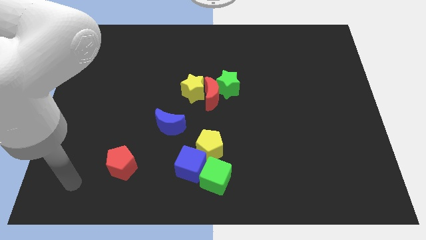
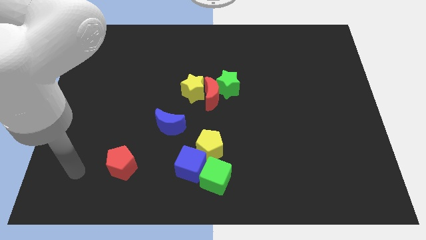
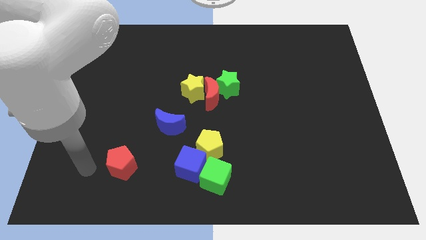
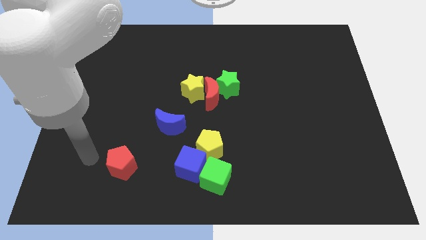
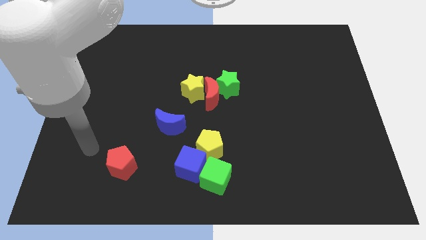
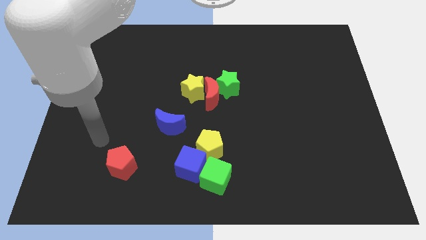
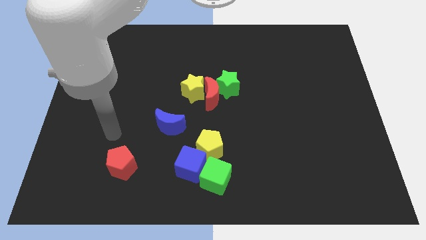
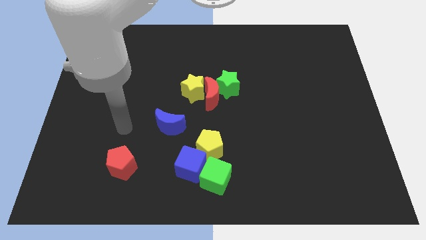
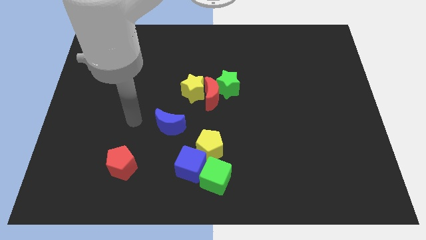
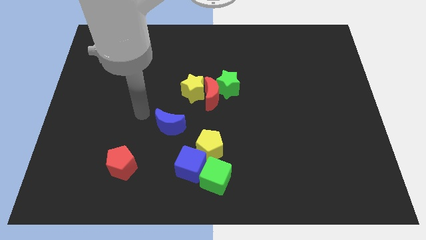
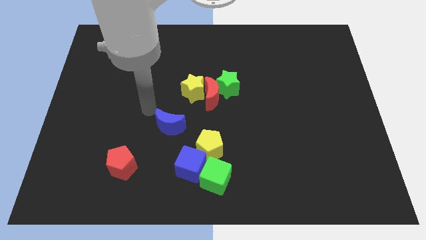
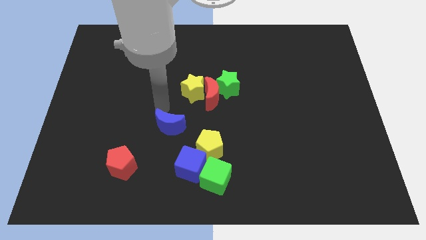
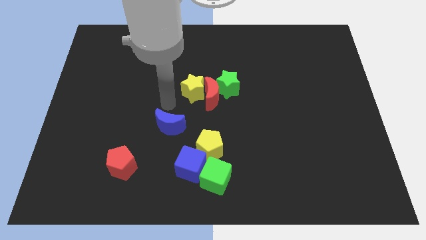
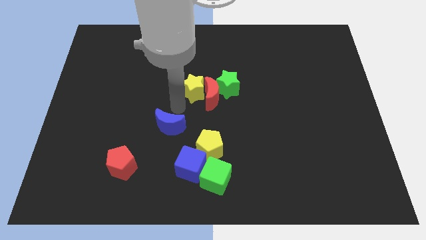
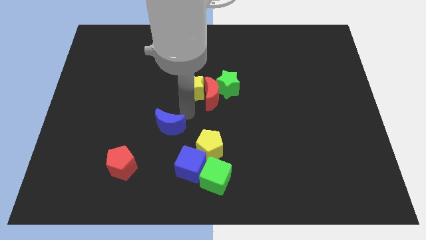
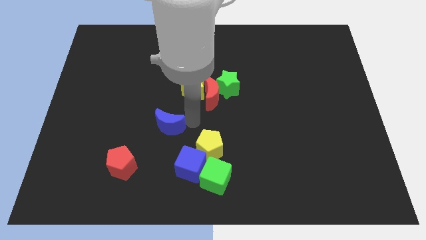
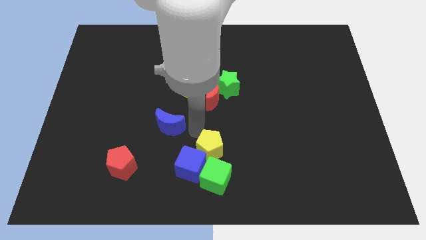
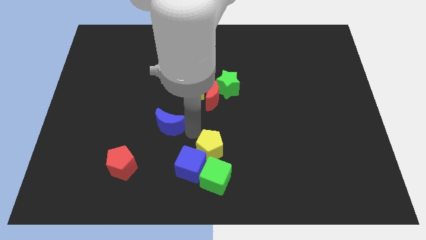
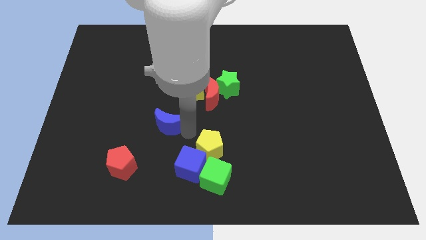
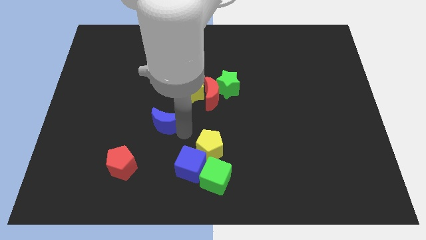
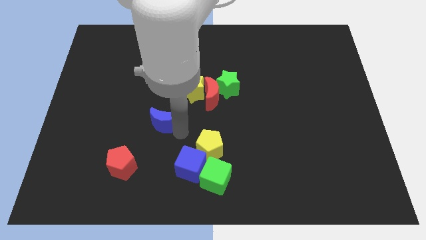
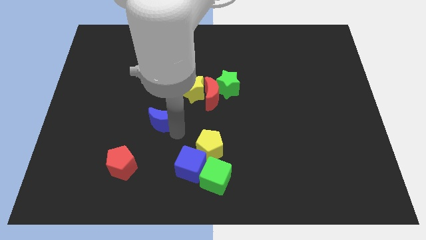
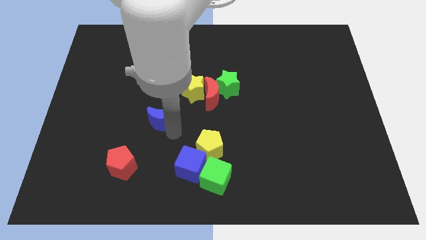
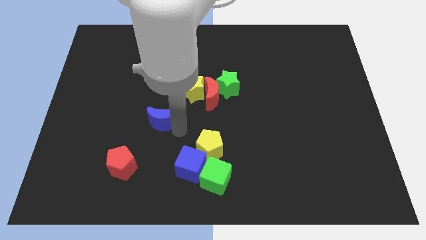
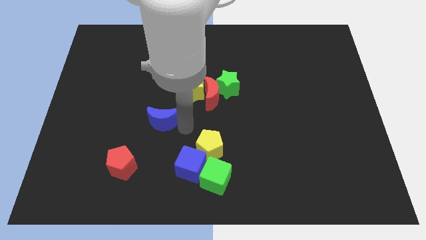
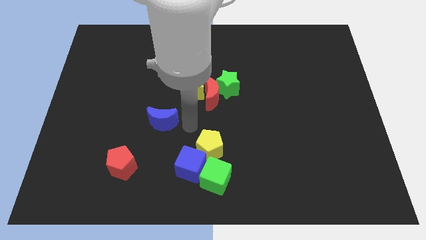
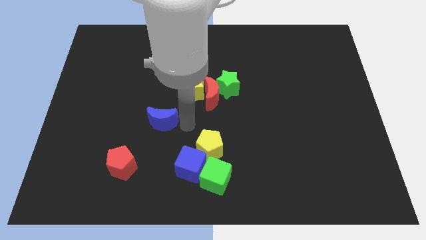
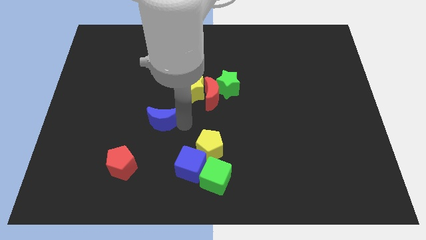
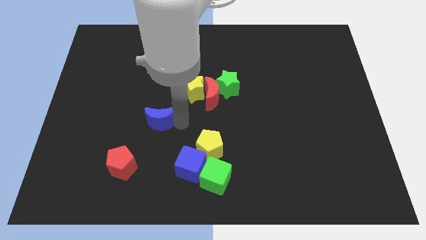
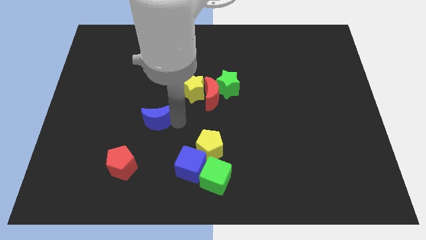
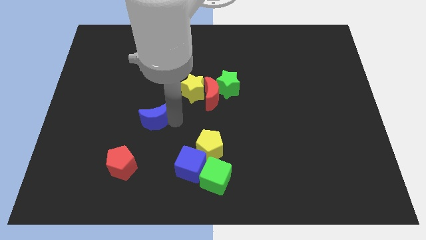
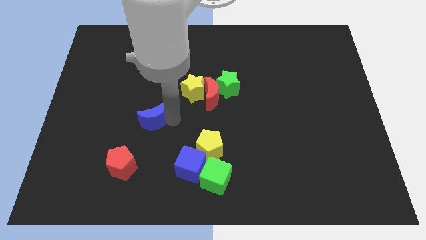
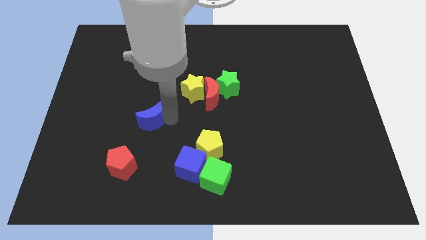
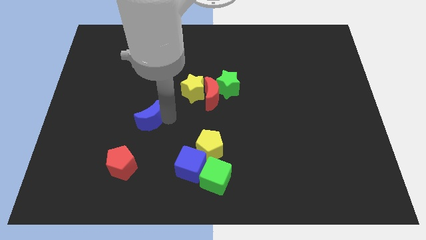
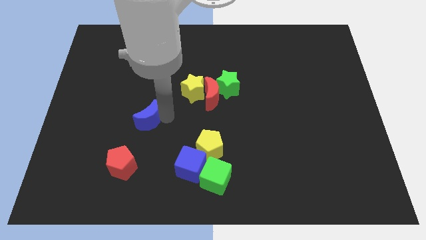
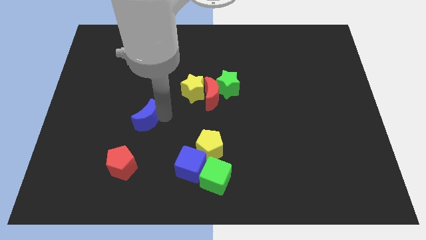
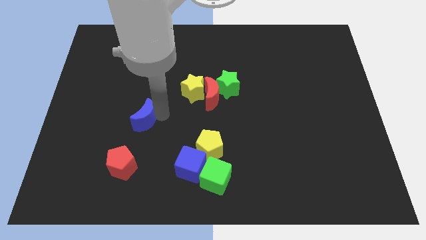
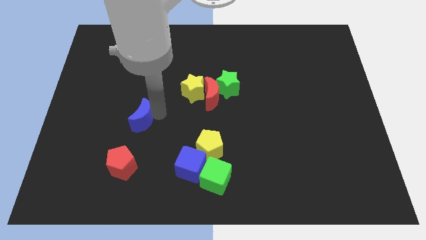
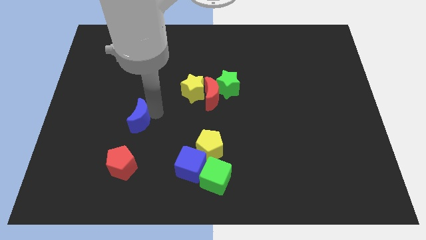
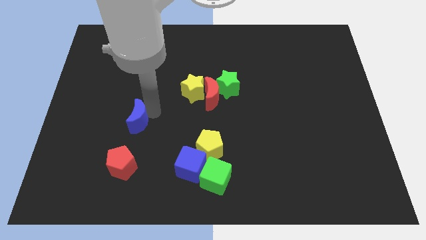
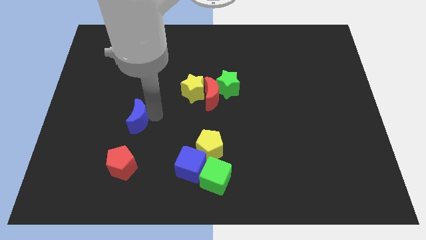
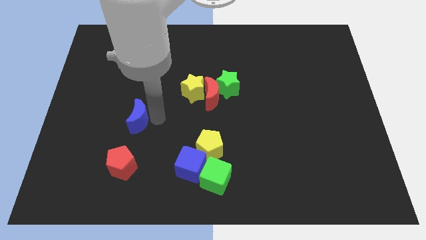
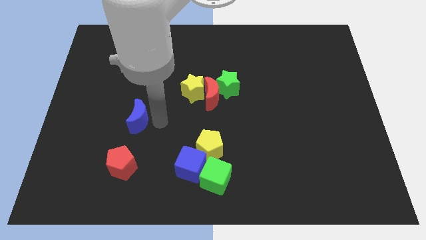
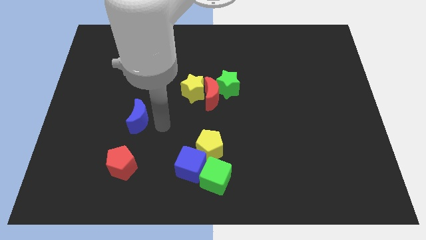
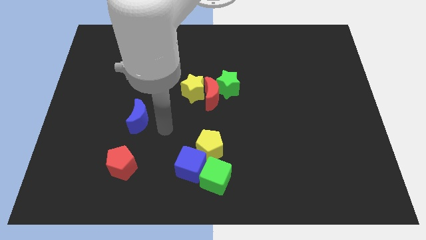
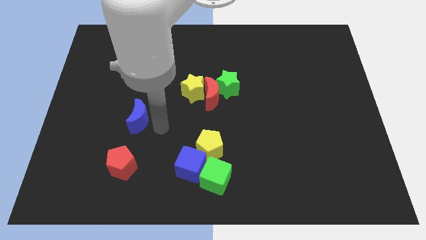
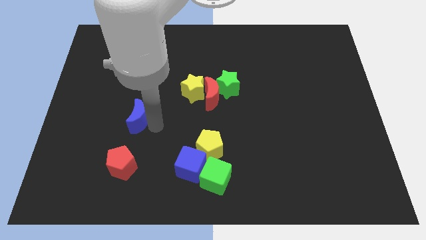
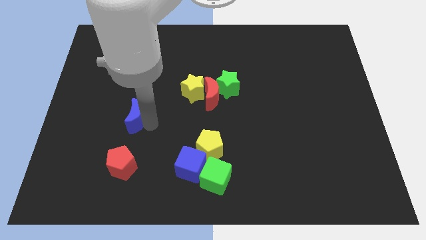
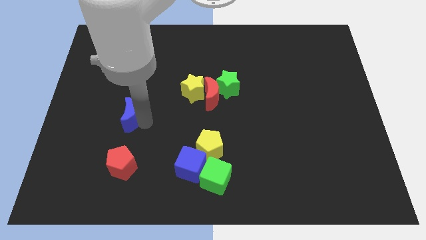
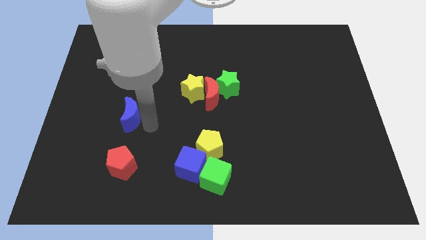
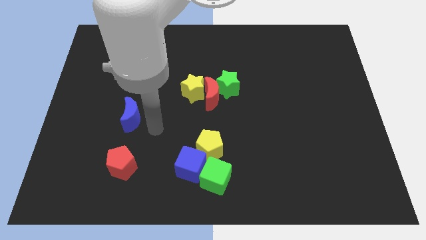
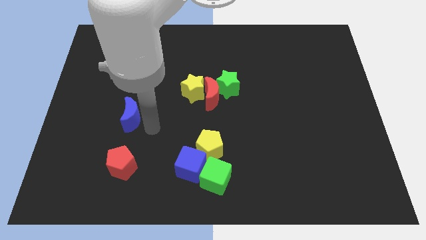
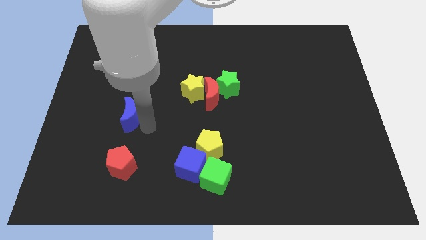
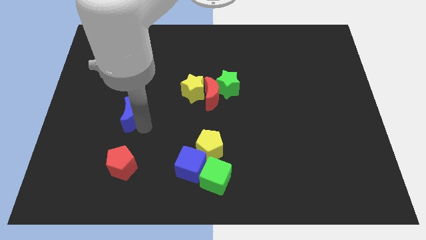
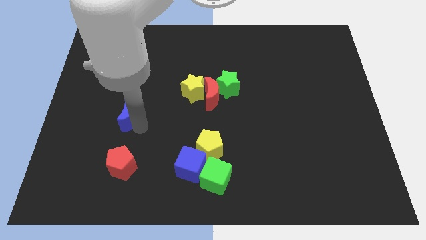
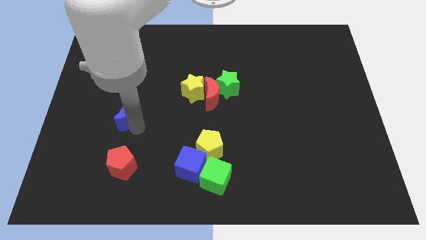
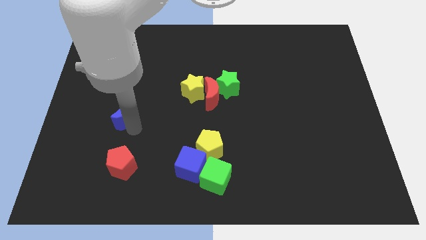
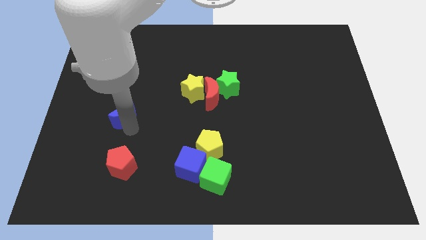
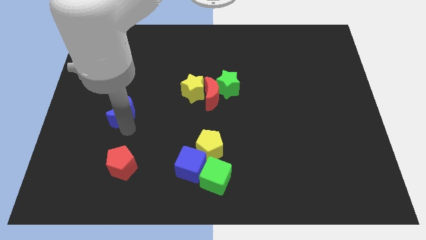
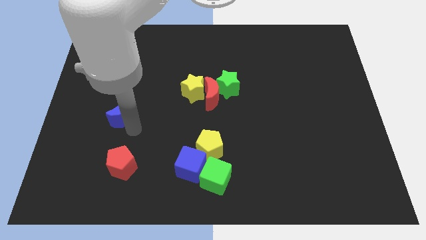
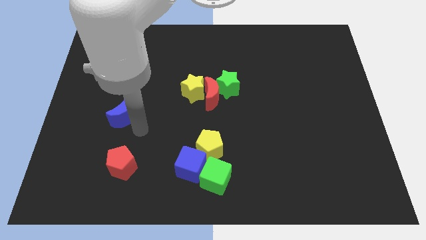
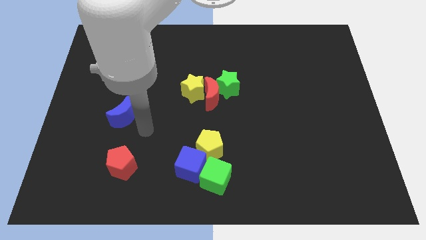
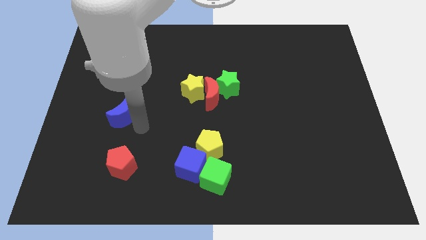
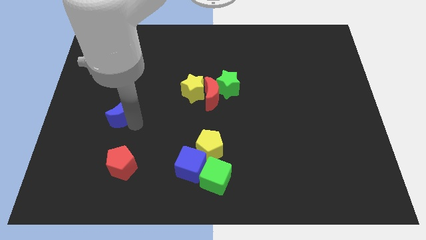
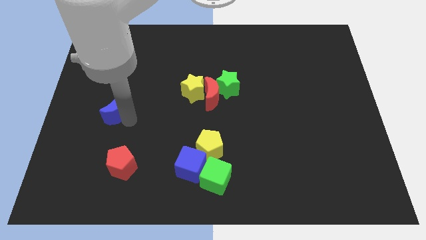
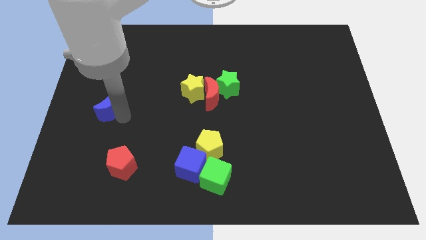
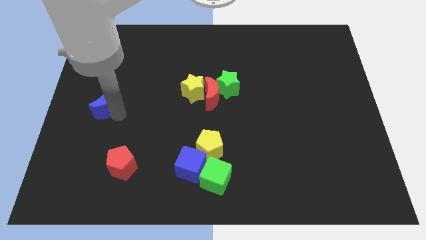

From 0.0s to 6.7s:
move the blue moon to the left side
